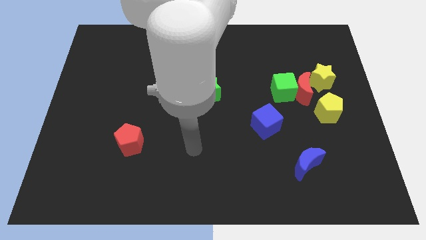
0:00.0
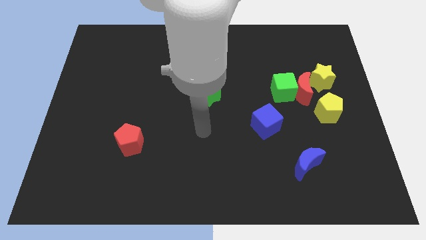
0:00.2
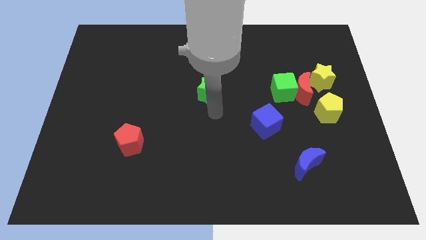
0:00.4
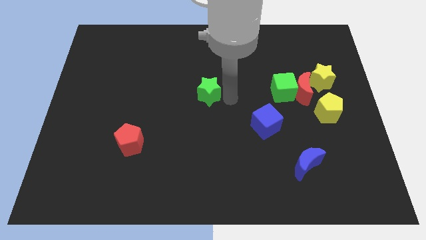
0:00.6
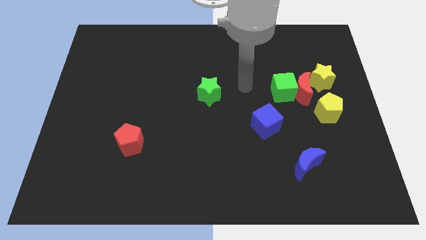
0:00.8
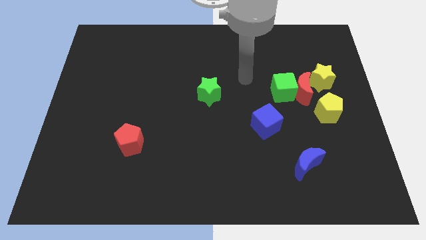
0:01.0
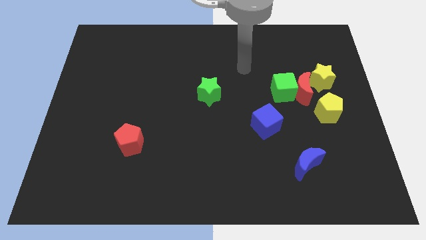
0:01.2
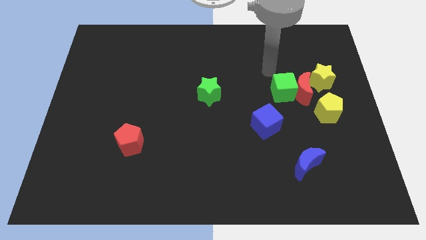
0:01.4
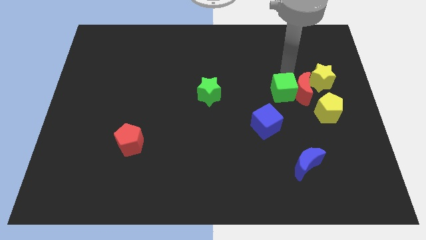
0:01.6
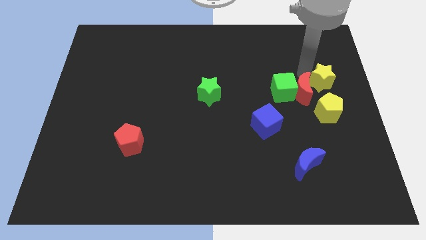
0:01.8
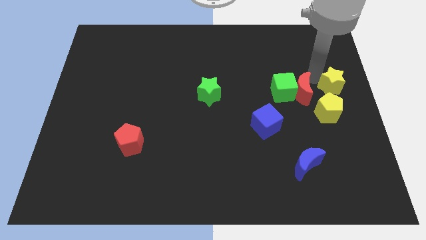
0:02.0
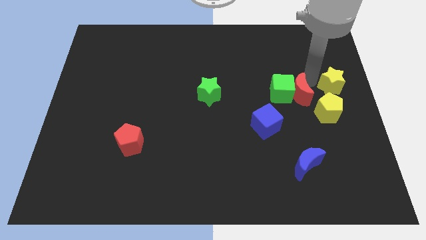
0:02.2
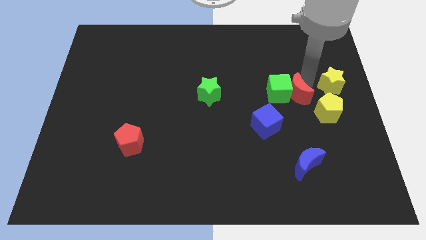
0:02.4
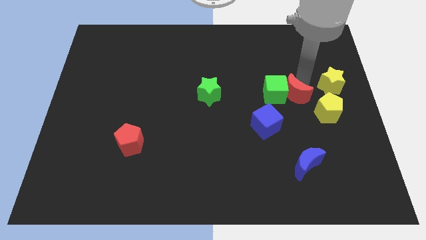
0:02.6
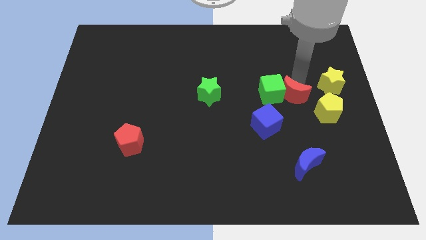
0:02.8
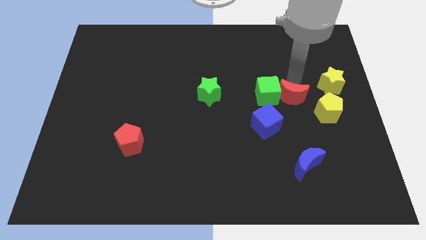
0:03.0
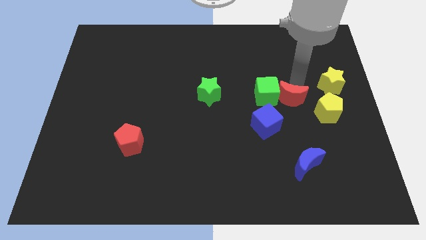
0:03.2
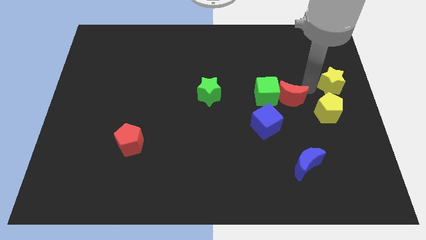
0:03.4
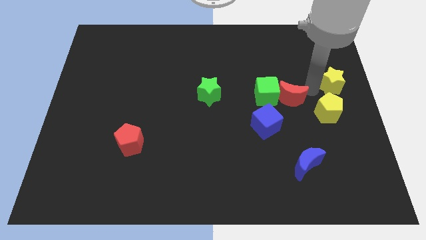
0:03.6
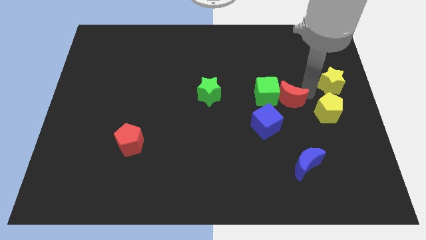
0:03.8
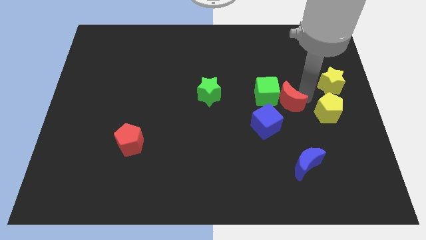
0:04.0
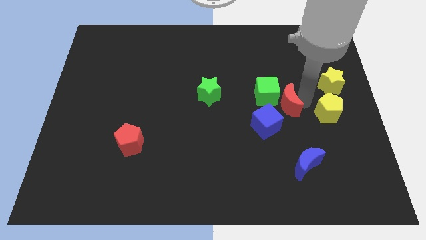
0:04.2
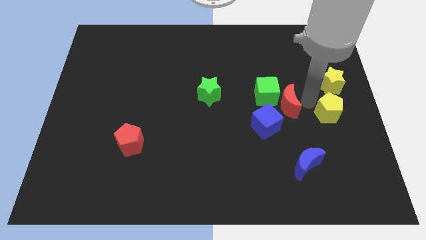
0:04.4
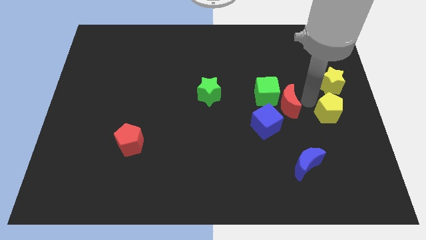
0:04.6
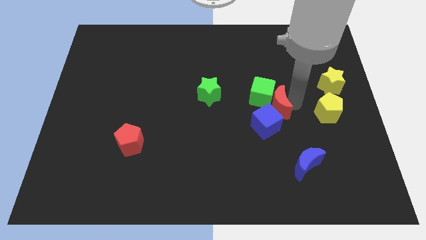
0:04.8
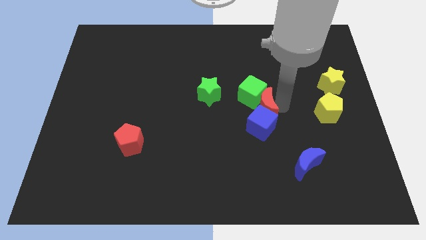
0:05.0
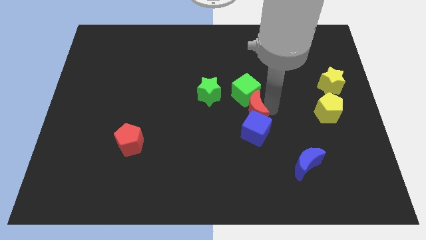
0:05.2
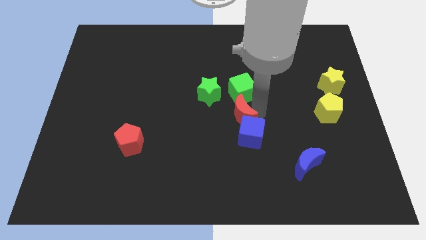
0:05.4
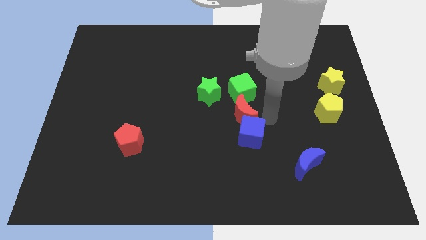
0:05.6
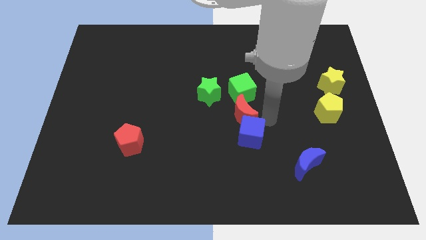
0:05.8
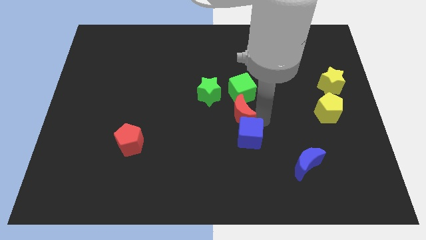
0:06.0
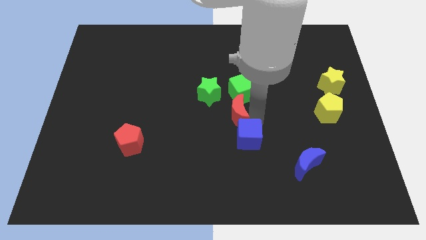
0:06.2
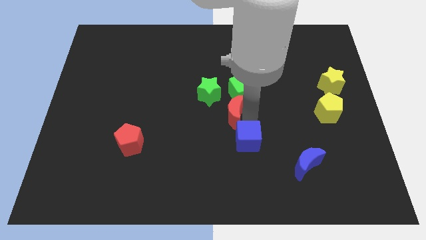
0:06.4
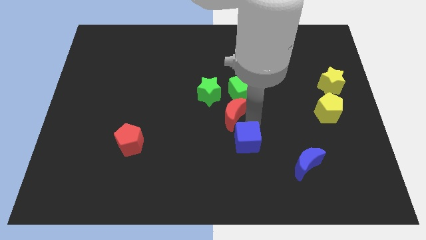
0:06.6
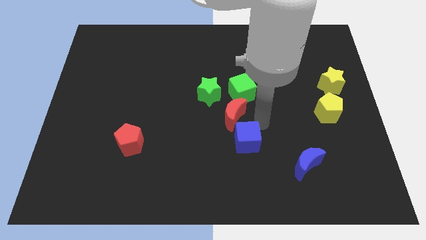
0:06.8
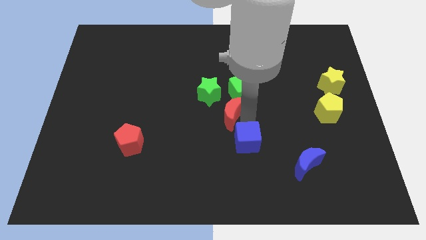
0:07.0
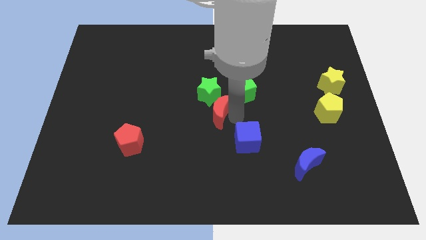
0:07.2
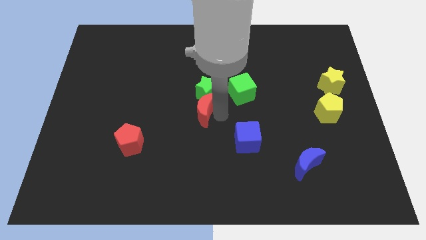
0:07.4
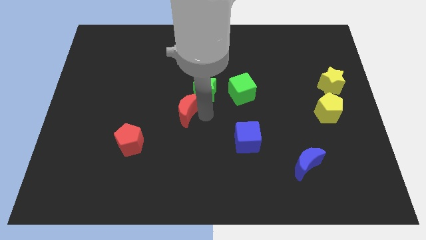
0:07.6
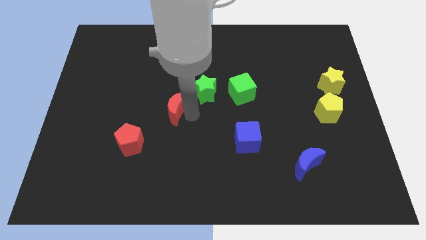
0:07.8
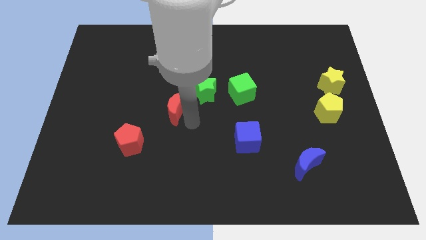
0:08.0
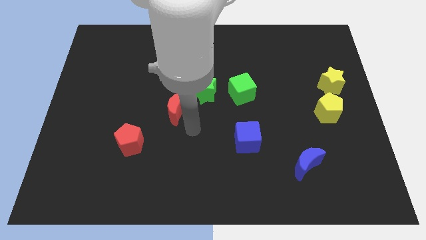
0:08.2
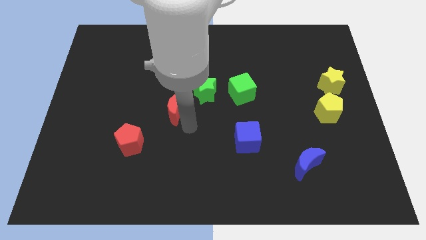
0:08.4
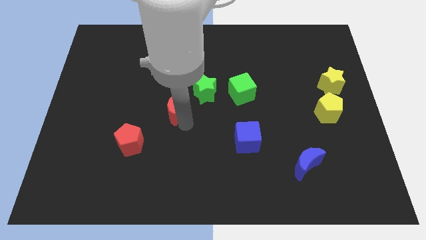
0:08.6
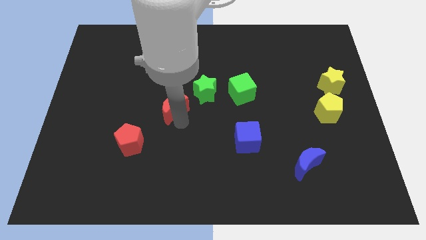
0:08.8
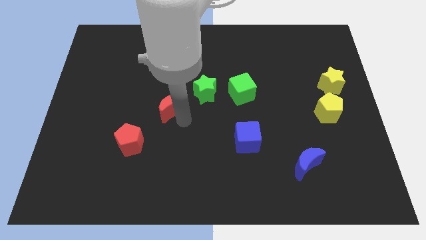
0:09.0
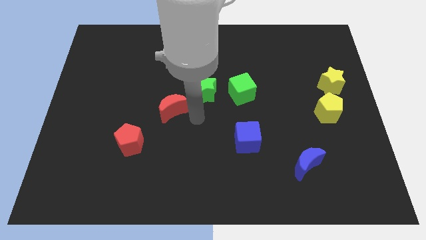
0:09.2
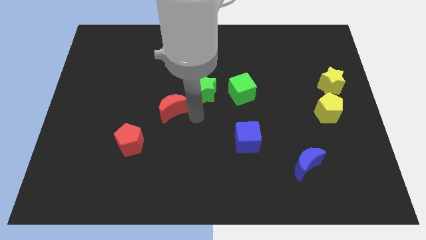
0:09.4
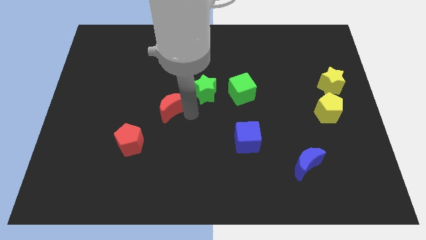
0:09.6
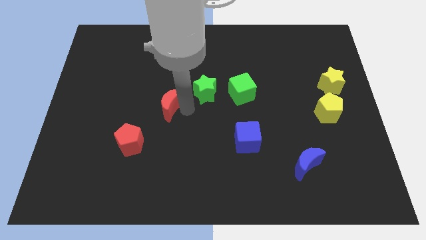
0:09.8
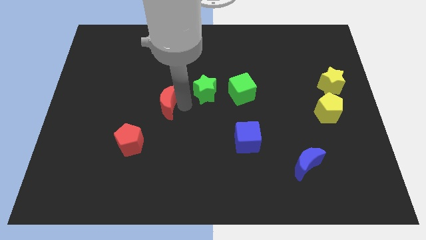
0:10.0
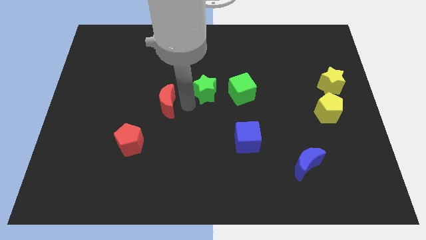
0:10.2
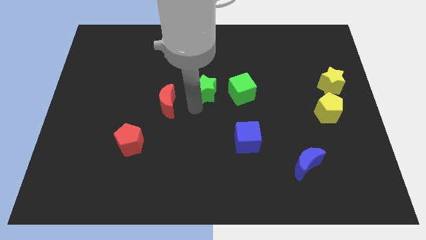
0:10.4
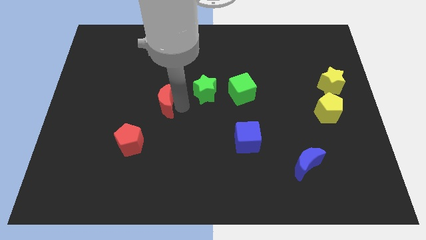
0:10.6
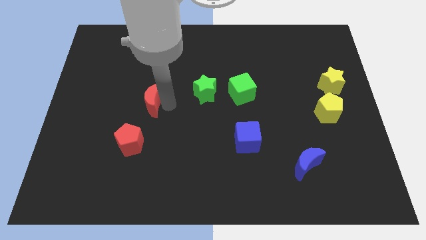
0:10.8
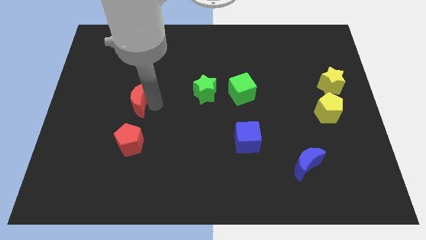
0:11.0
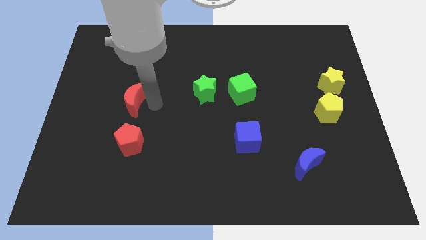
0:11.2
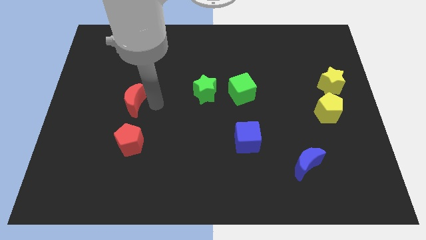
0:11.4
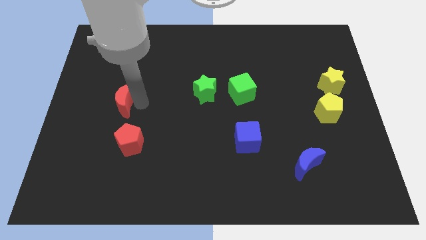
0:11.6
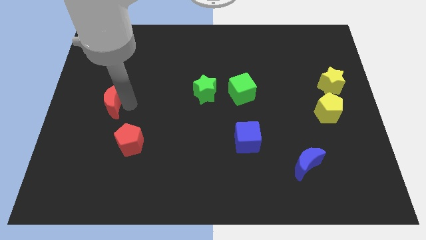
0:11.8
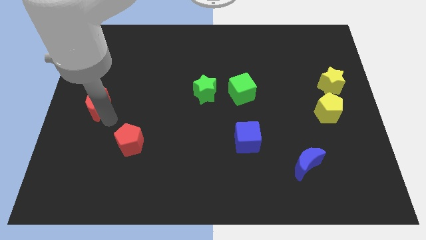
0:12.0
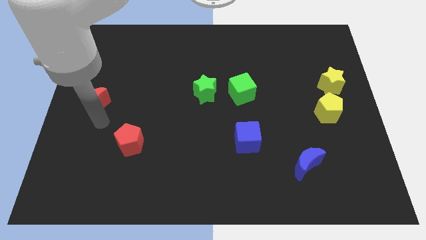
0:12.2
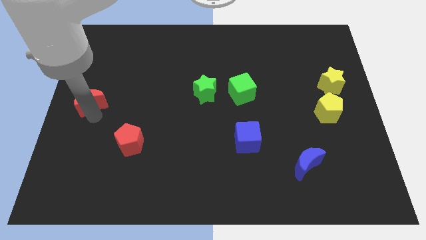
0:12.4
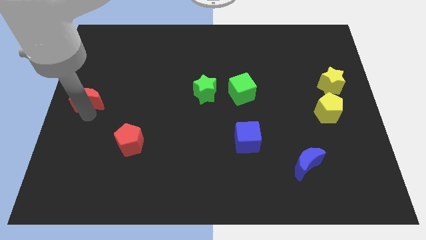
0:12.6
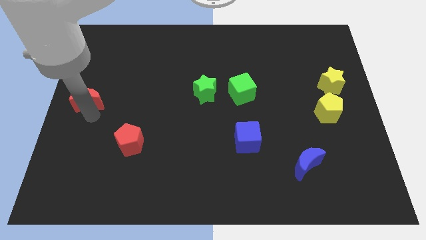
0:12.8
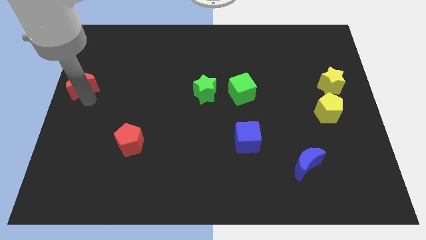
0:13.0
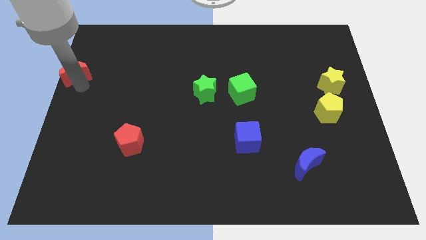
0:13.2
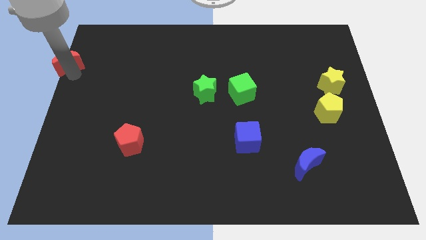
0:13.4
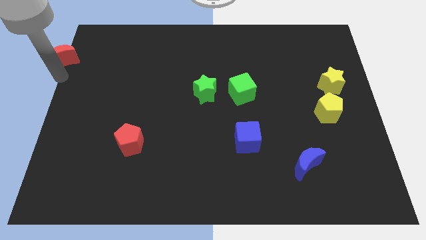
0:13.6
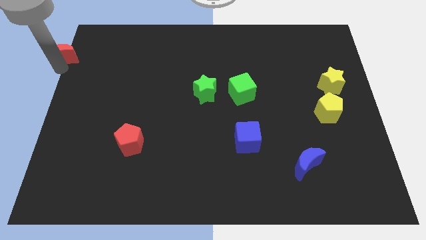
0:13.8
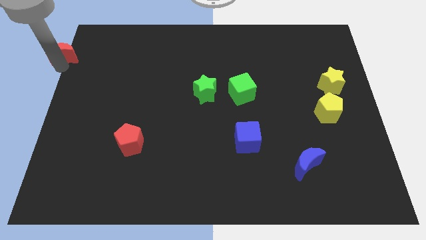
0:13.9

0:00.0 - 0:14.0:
push the red moon to the top left of the board
